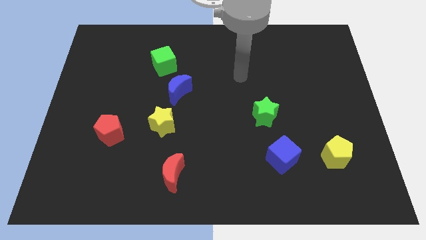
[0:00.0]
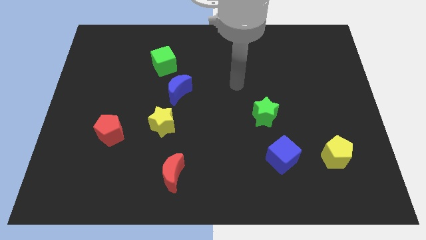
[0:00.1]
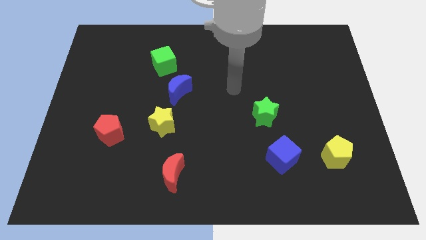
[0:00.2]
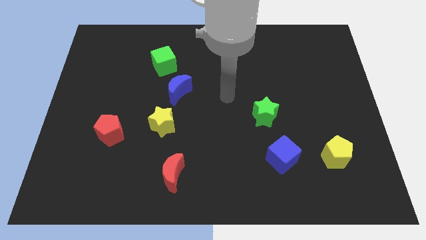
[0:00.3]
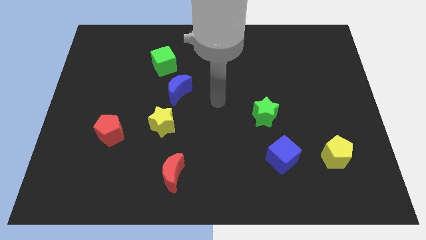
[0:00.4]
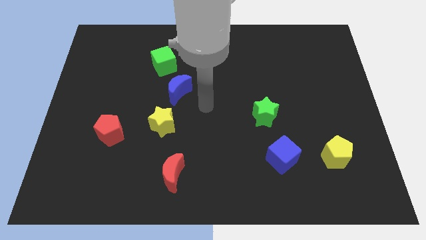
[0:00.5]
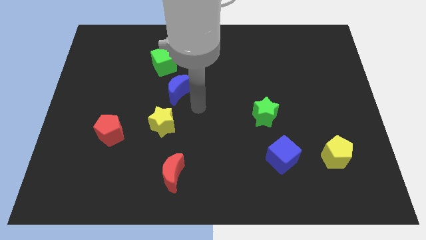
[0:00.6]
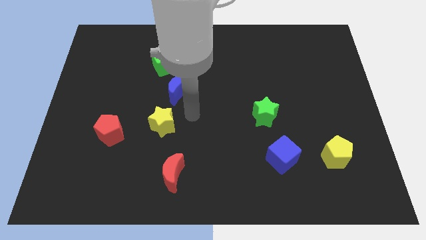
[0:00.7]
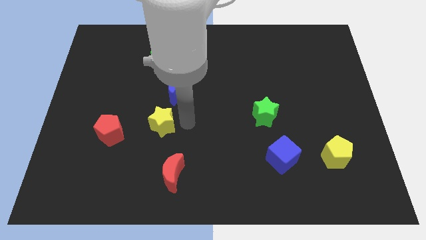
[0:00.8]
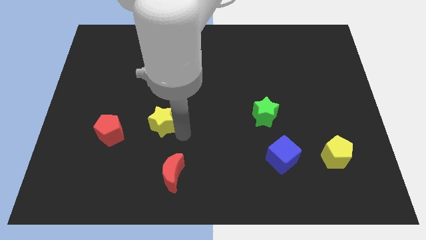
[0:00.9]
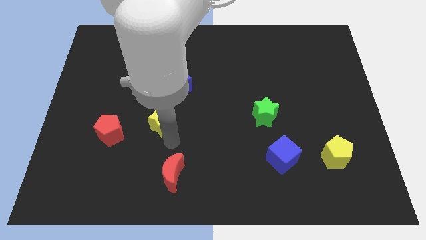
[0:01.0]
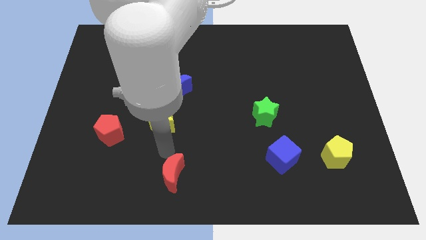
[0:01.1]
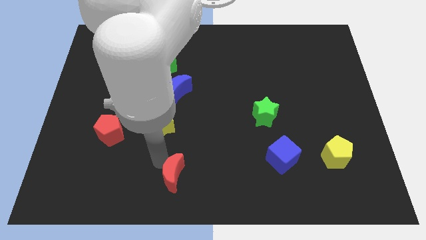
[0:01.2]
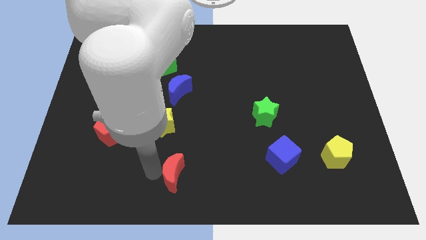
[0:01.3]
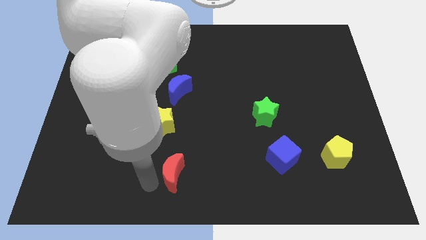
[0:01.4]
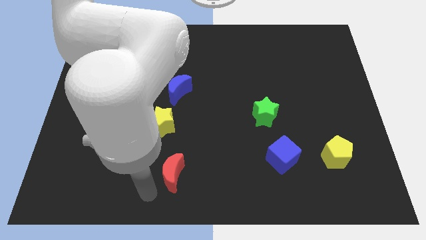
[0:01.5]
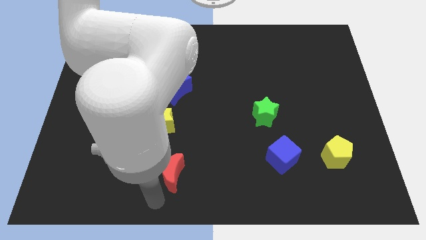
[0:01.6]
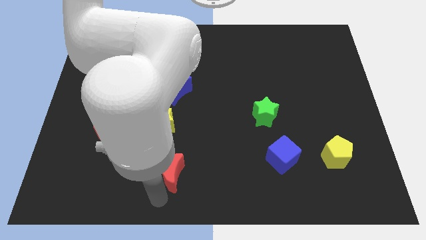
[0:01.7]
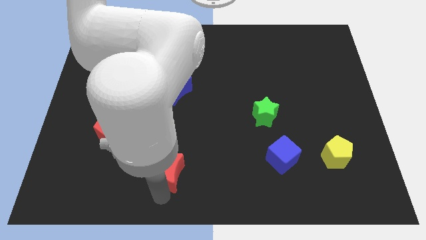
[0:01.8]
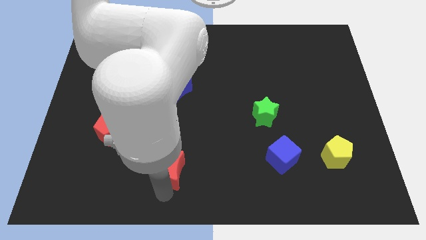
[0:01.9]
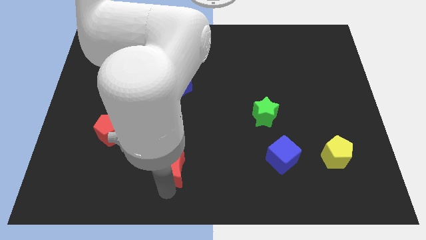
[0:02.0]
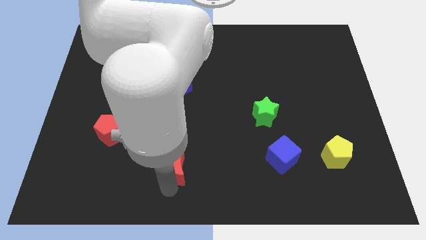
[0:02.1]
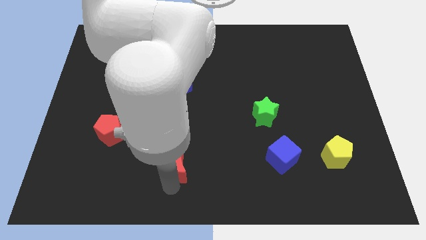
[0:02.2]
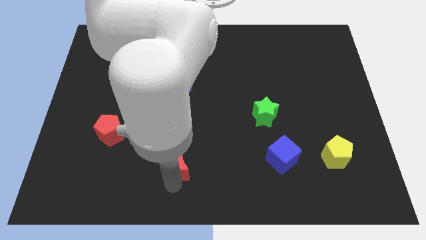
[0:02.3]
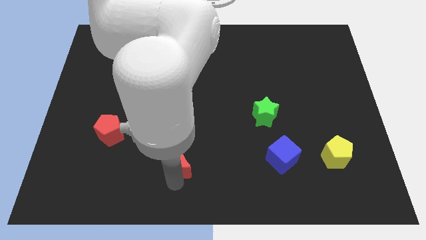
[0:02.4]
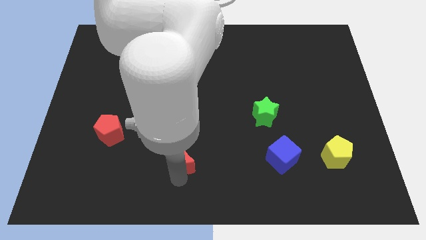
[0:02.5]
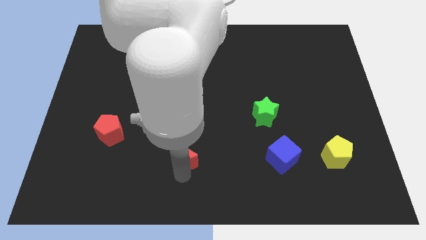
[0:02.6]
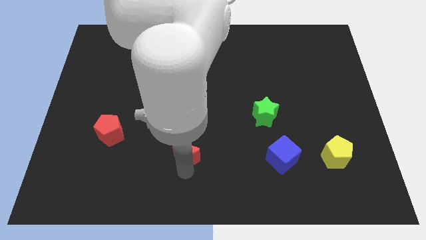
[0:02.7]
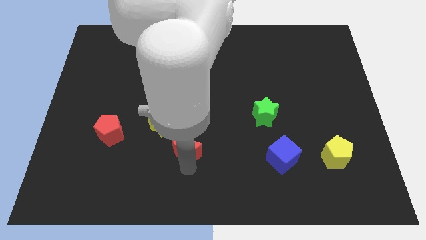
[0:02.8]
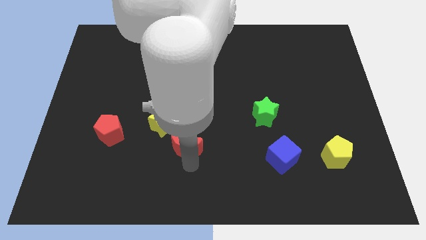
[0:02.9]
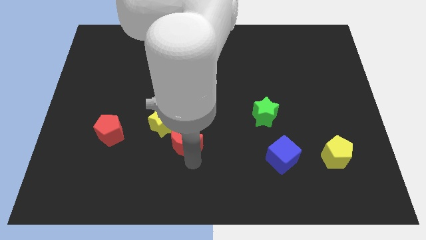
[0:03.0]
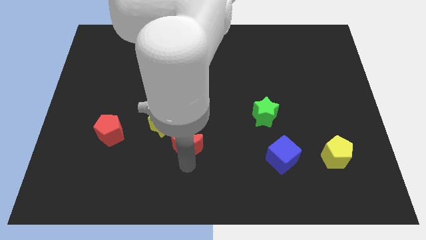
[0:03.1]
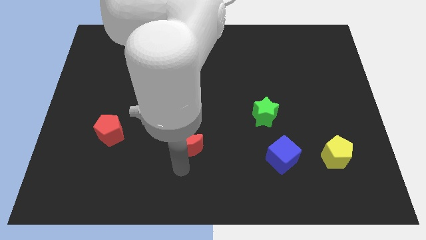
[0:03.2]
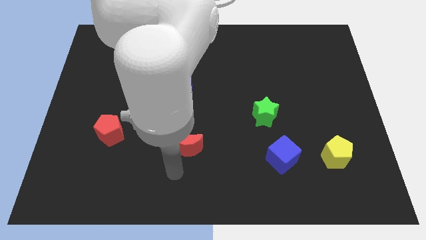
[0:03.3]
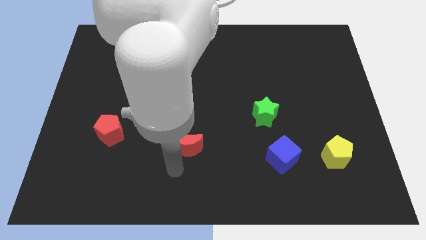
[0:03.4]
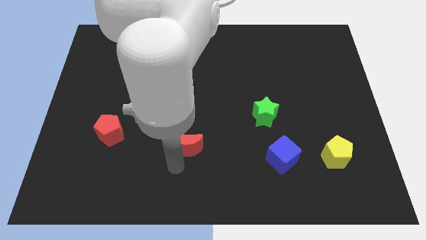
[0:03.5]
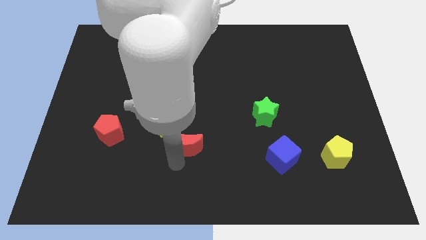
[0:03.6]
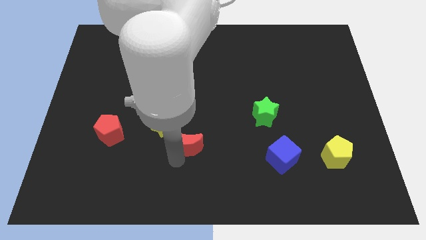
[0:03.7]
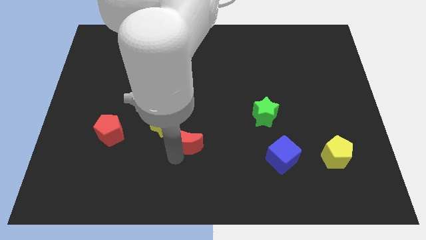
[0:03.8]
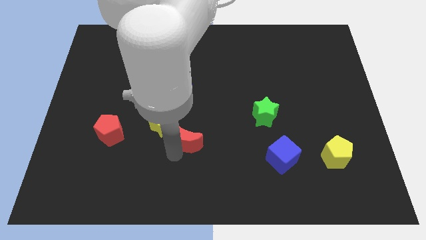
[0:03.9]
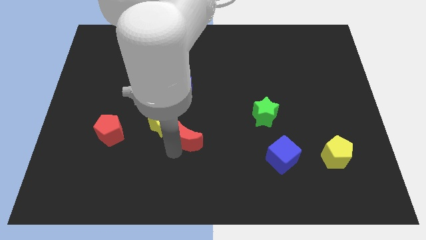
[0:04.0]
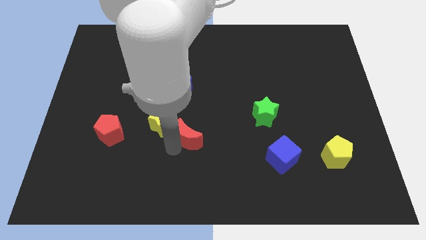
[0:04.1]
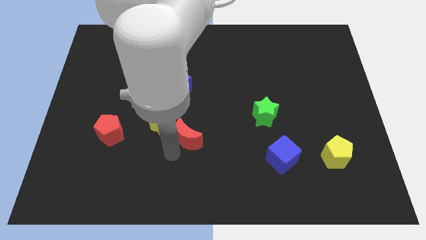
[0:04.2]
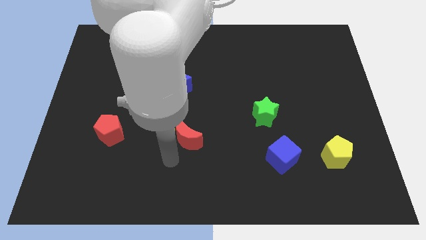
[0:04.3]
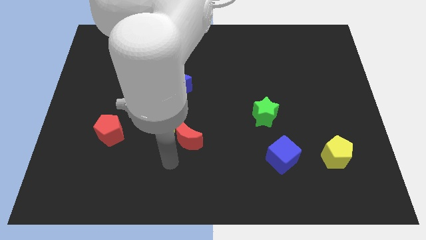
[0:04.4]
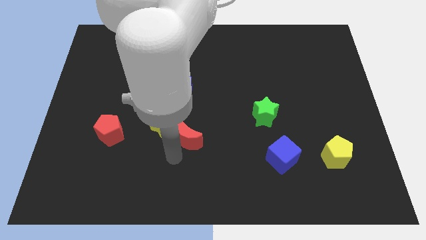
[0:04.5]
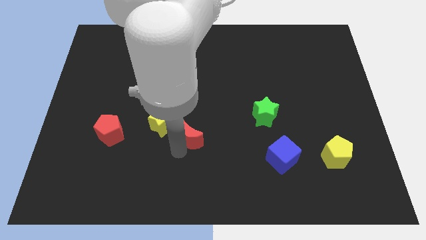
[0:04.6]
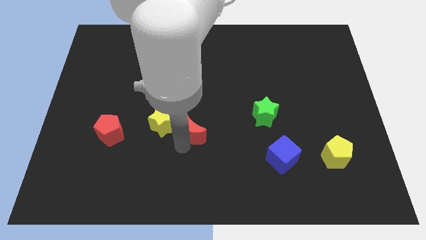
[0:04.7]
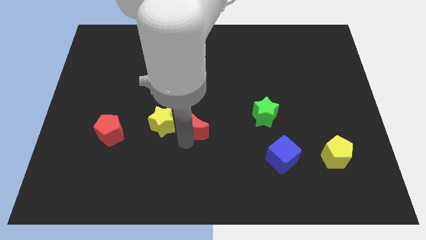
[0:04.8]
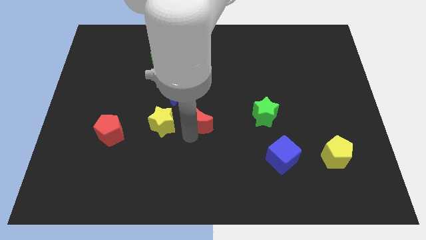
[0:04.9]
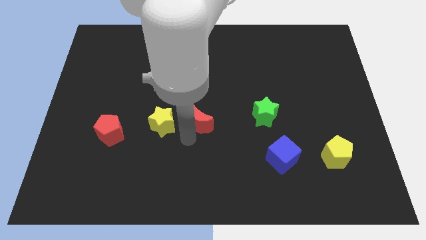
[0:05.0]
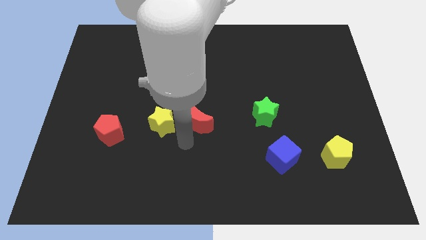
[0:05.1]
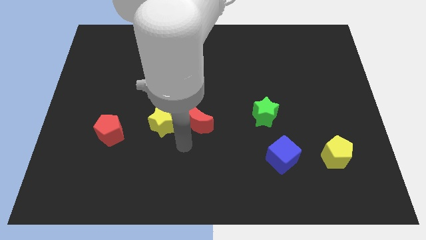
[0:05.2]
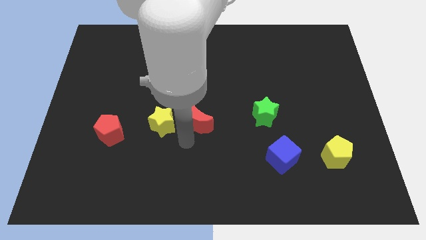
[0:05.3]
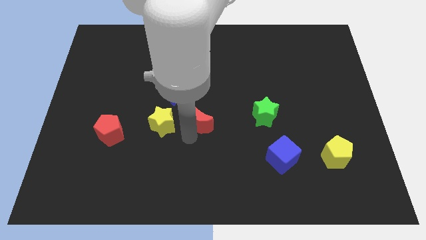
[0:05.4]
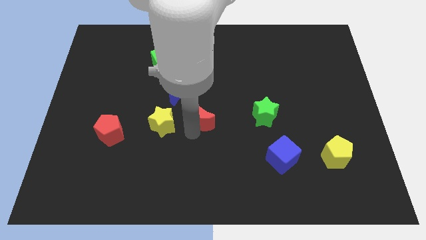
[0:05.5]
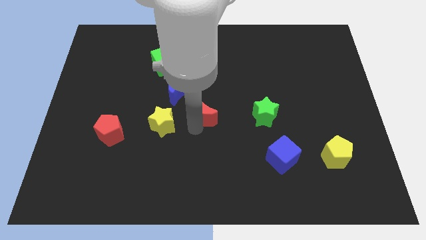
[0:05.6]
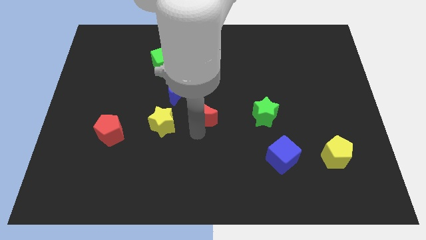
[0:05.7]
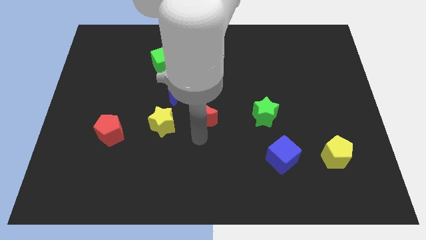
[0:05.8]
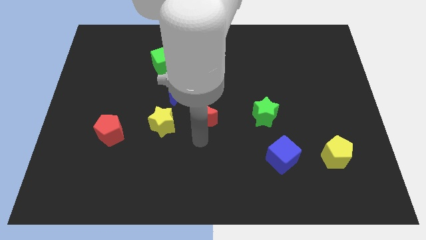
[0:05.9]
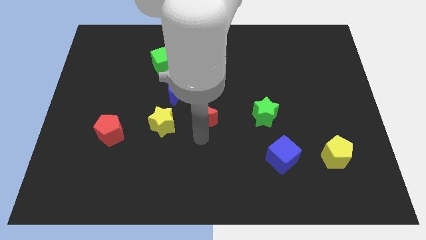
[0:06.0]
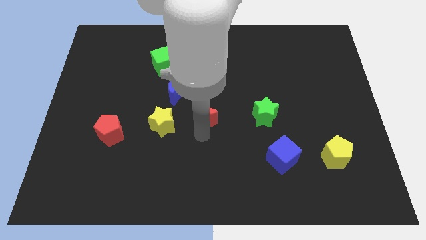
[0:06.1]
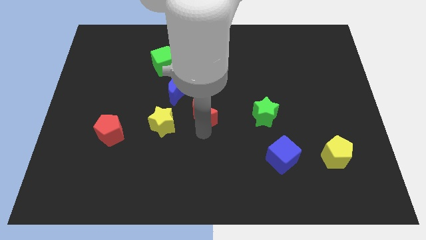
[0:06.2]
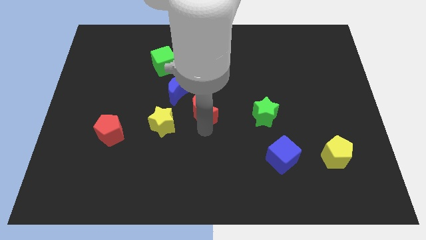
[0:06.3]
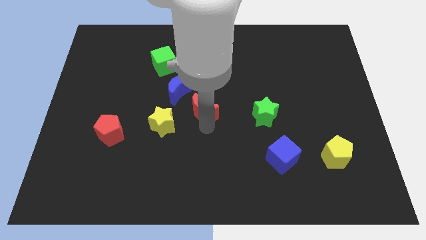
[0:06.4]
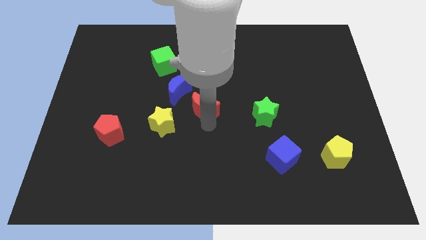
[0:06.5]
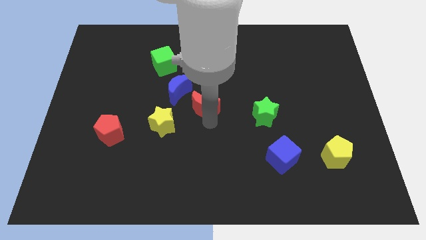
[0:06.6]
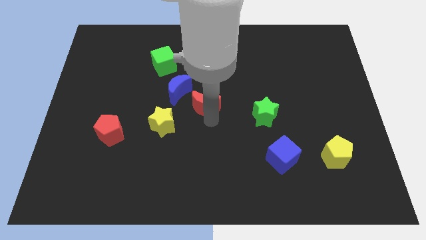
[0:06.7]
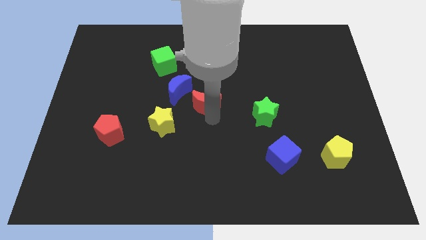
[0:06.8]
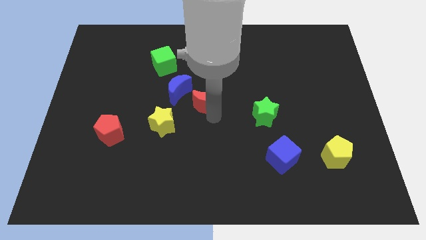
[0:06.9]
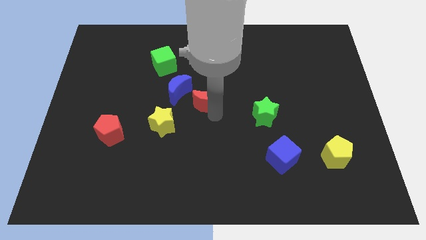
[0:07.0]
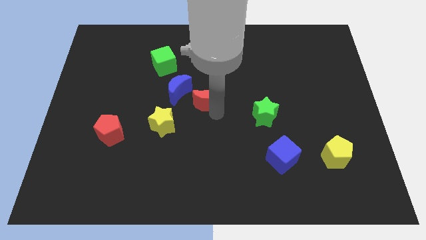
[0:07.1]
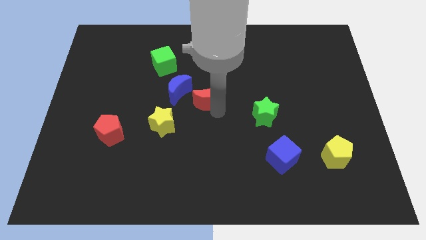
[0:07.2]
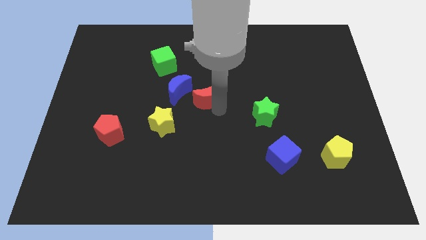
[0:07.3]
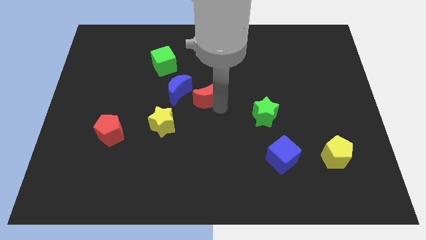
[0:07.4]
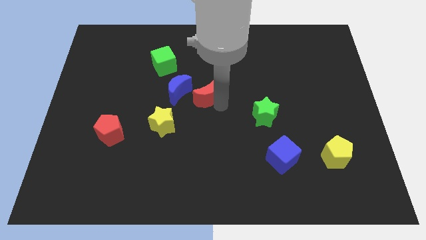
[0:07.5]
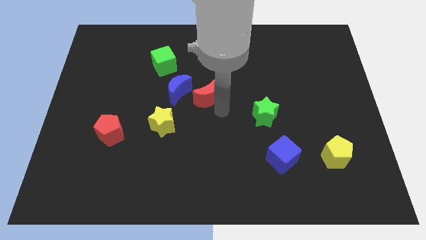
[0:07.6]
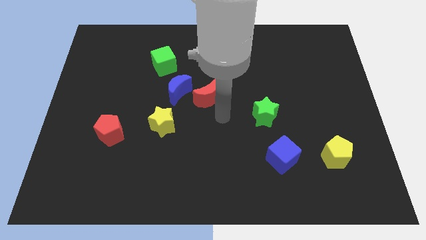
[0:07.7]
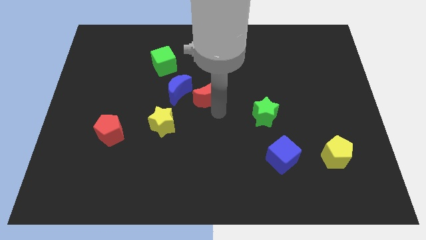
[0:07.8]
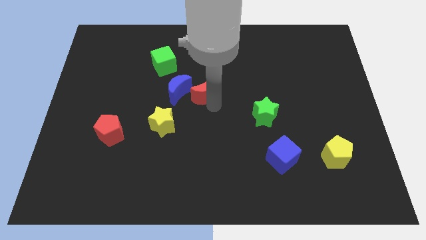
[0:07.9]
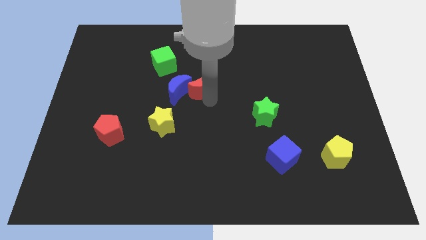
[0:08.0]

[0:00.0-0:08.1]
slide the red moon up
